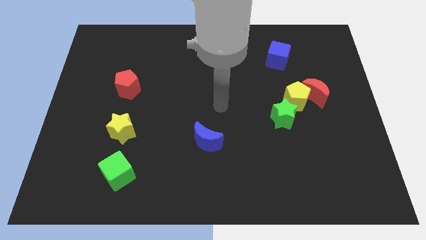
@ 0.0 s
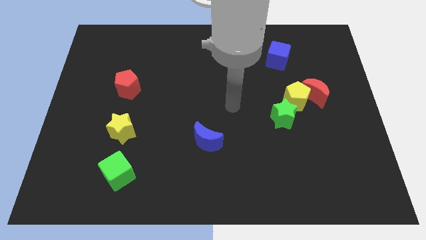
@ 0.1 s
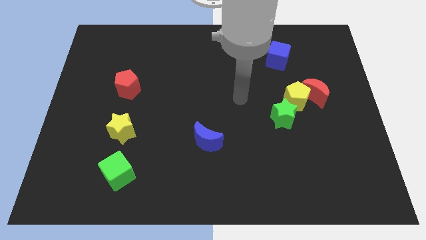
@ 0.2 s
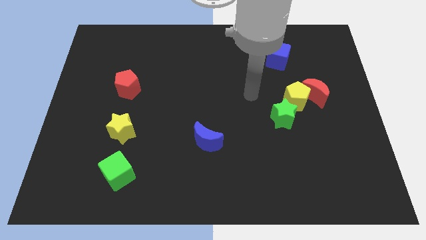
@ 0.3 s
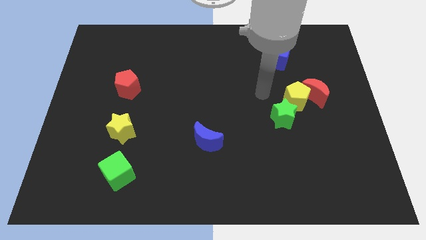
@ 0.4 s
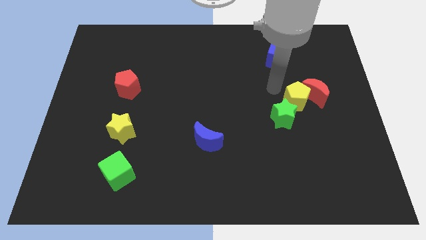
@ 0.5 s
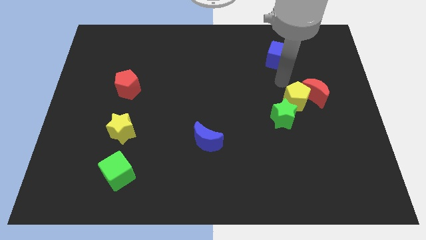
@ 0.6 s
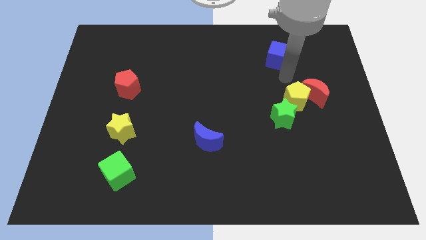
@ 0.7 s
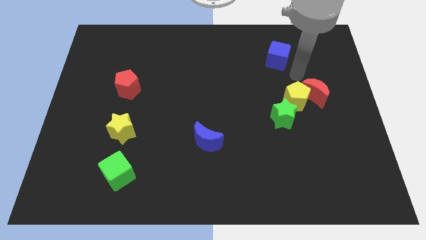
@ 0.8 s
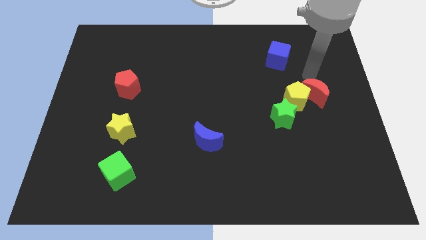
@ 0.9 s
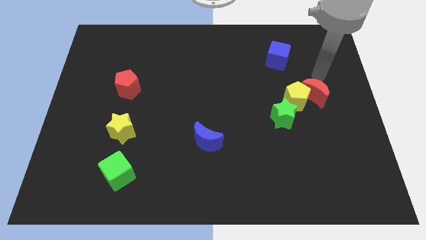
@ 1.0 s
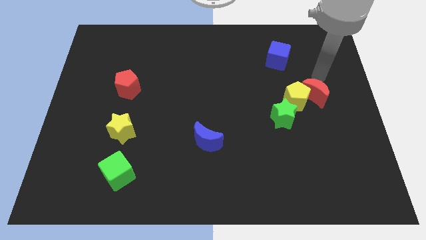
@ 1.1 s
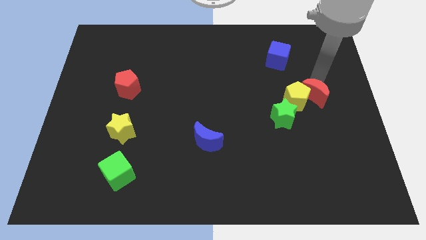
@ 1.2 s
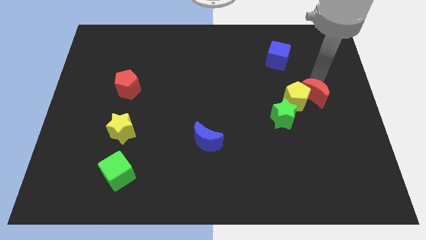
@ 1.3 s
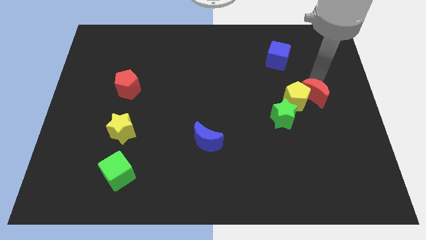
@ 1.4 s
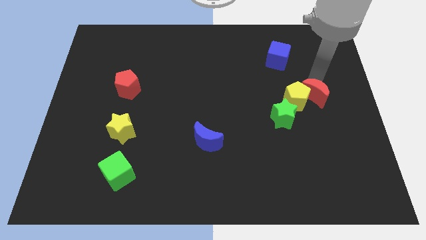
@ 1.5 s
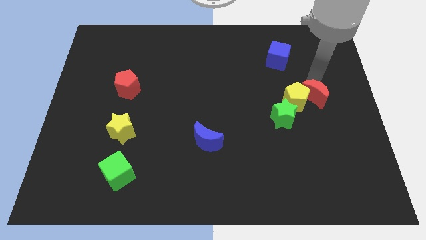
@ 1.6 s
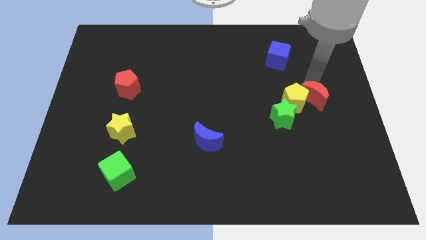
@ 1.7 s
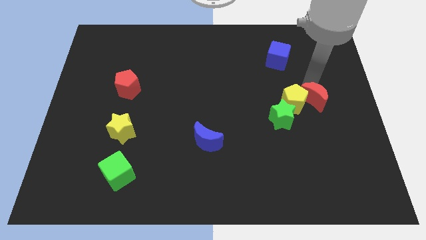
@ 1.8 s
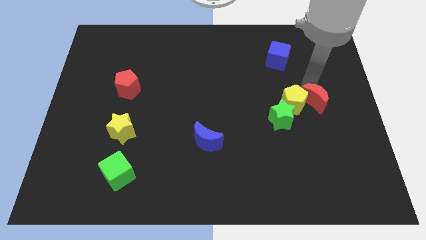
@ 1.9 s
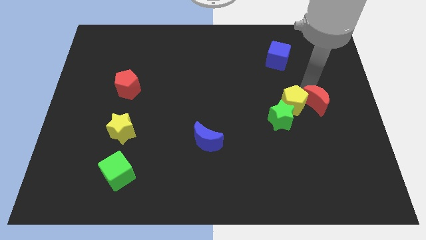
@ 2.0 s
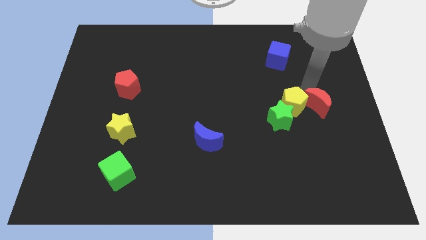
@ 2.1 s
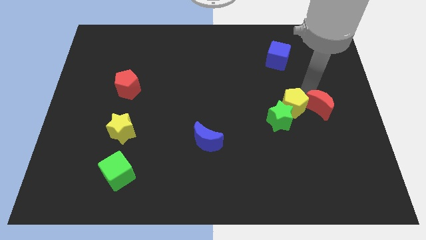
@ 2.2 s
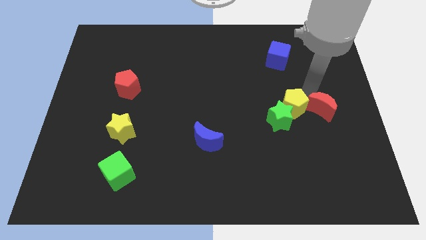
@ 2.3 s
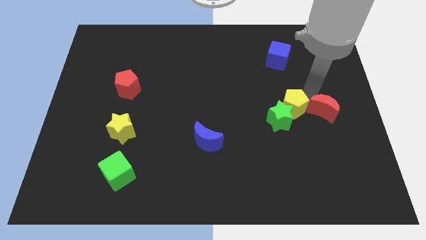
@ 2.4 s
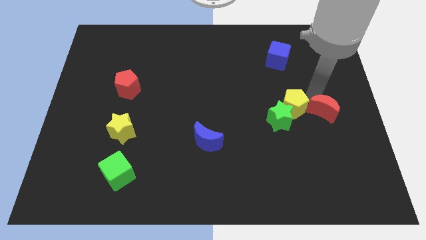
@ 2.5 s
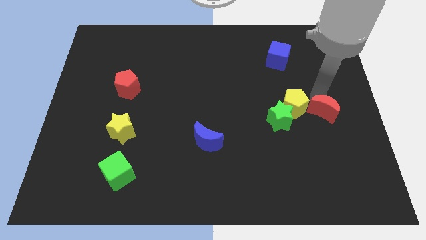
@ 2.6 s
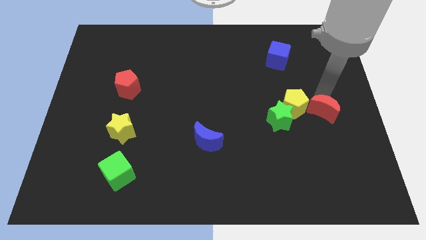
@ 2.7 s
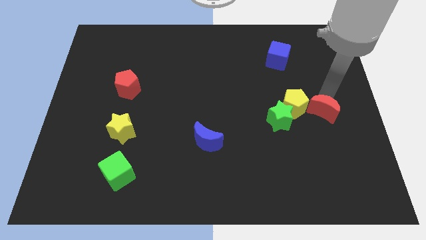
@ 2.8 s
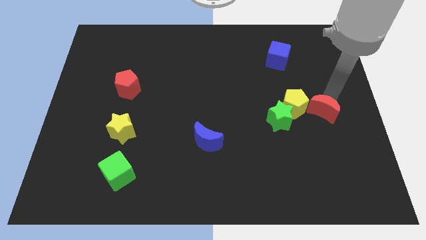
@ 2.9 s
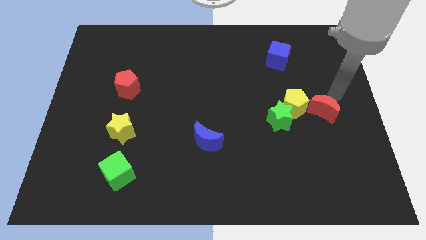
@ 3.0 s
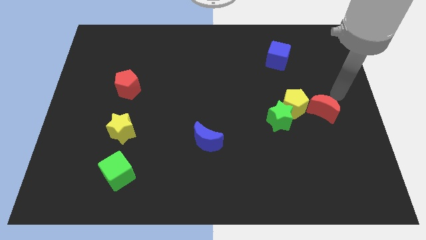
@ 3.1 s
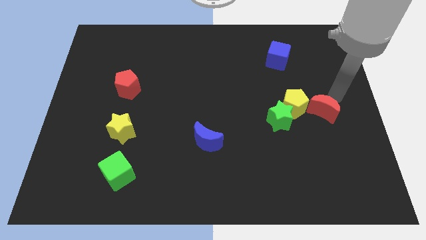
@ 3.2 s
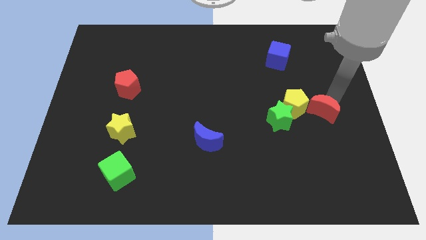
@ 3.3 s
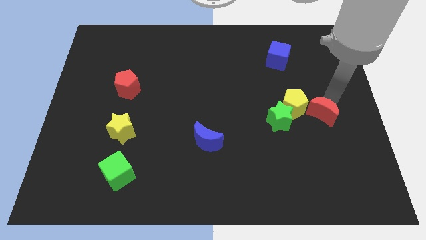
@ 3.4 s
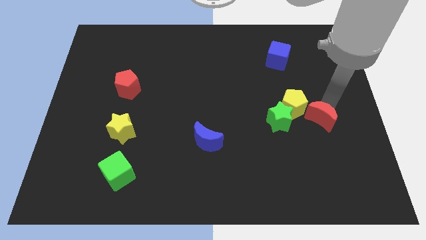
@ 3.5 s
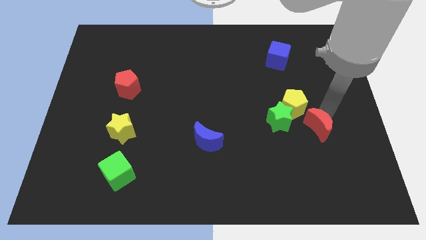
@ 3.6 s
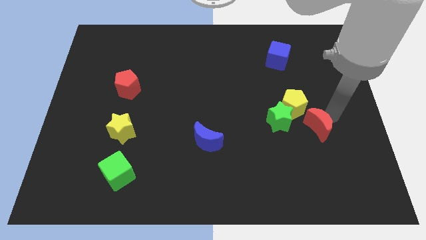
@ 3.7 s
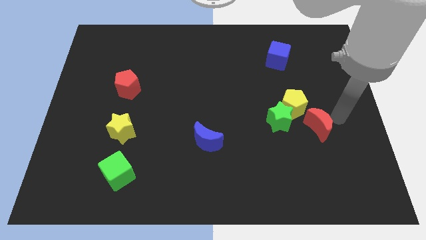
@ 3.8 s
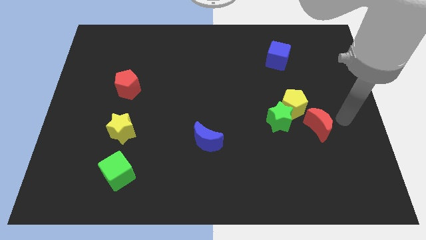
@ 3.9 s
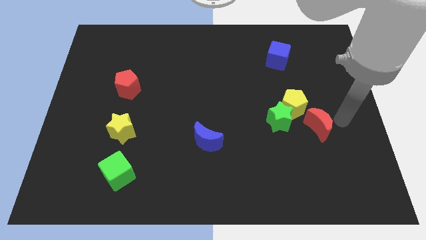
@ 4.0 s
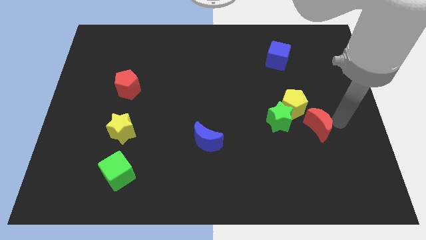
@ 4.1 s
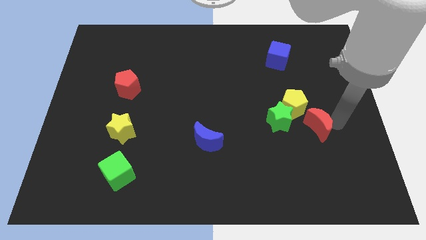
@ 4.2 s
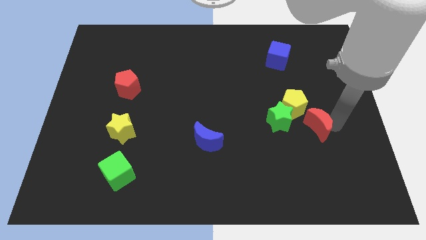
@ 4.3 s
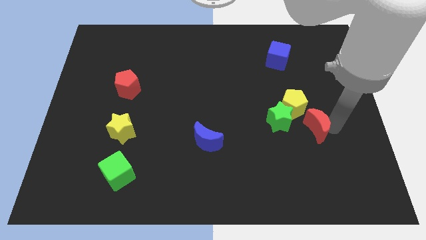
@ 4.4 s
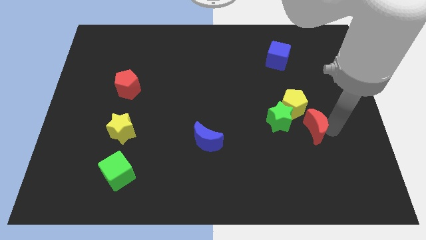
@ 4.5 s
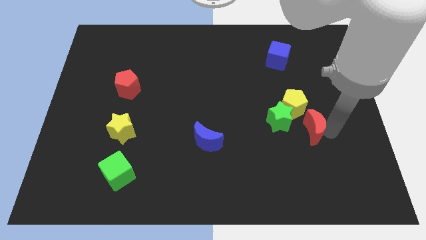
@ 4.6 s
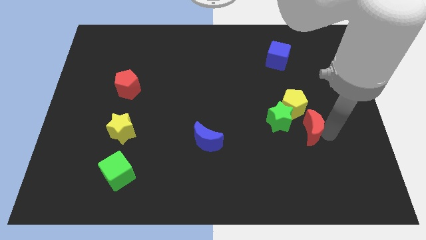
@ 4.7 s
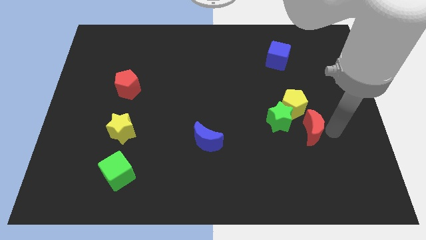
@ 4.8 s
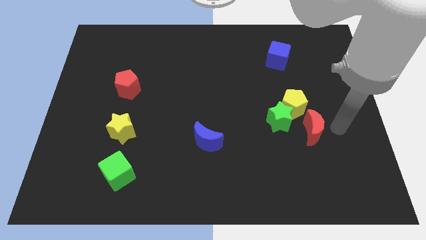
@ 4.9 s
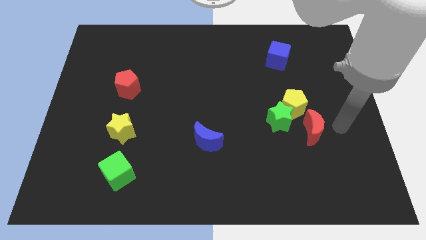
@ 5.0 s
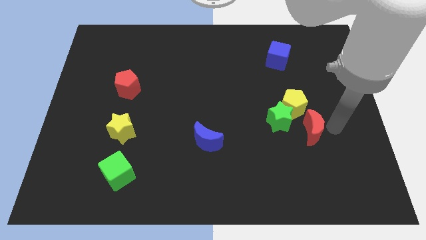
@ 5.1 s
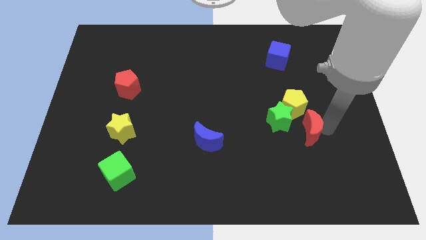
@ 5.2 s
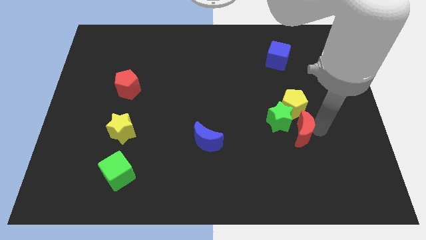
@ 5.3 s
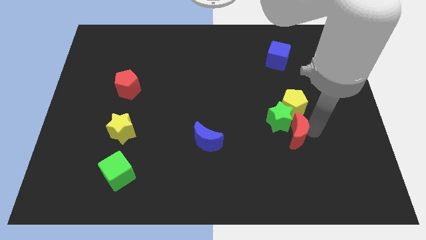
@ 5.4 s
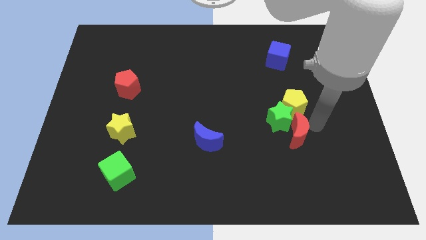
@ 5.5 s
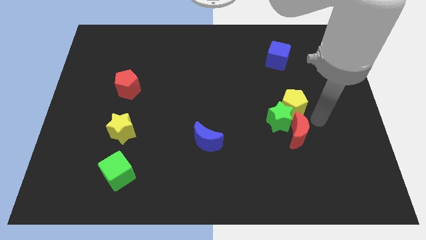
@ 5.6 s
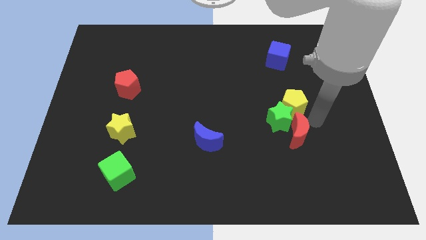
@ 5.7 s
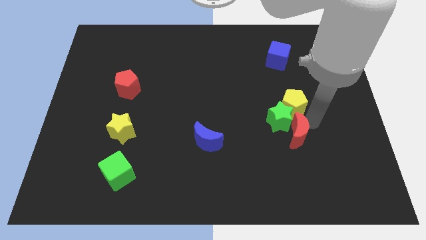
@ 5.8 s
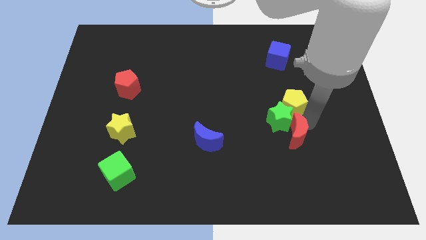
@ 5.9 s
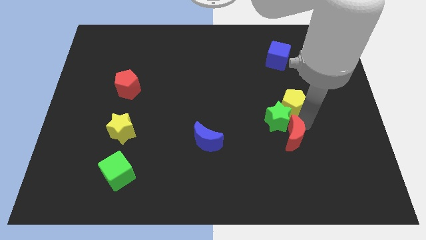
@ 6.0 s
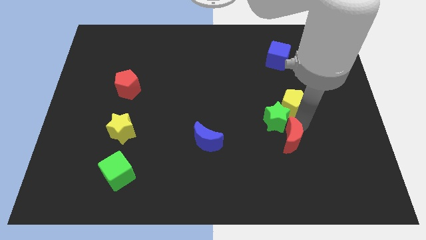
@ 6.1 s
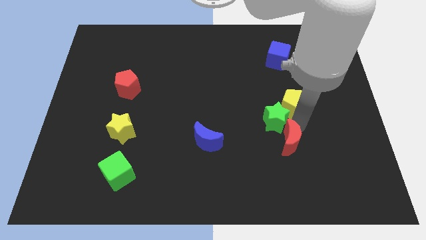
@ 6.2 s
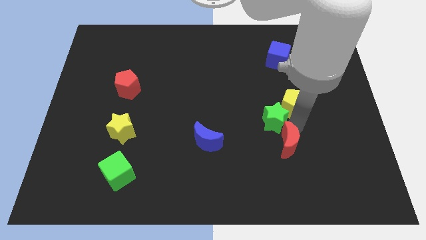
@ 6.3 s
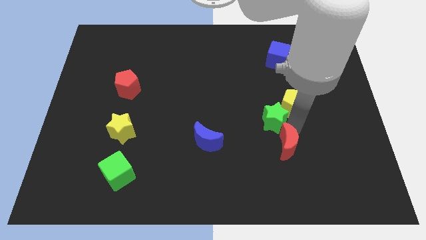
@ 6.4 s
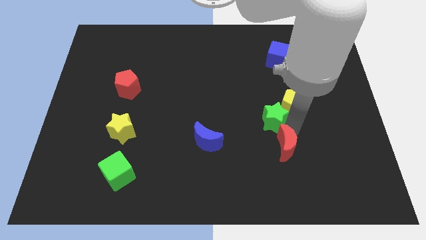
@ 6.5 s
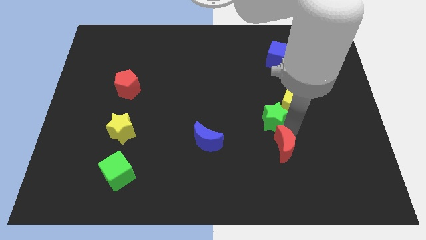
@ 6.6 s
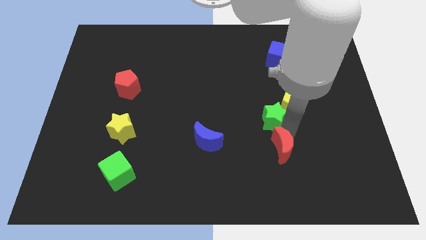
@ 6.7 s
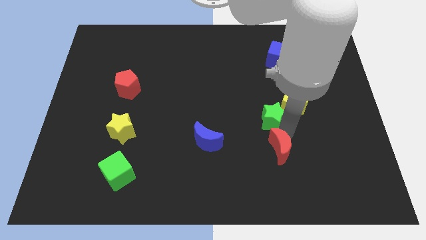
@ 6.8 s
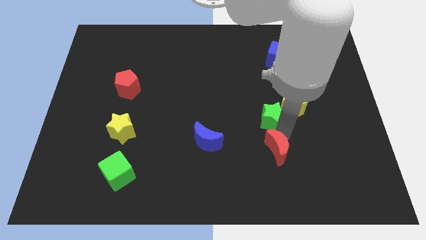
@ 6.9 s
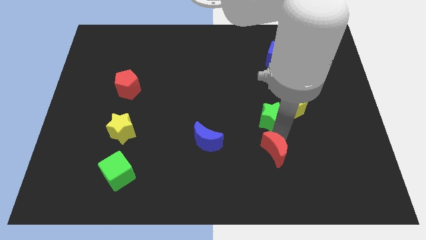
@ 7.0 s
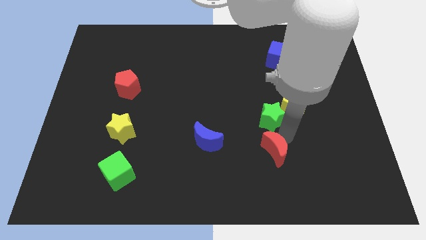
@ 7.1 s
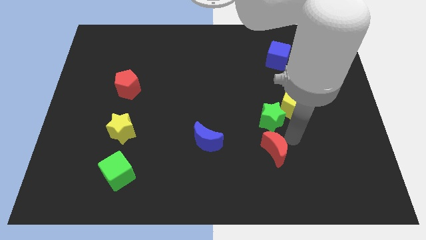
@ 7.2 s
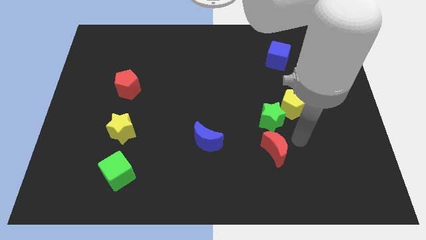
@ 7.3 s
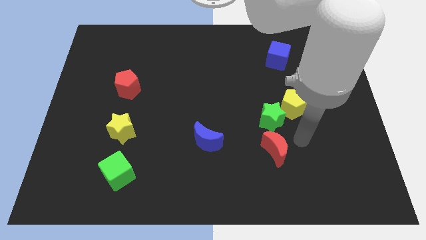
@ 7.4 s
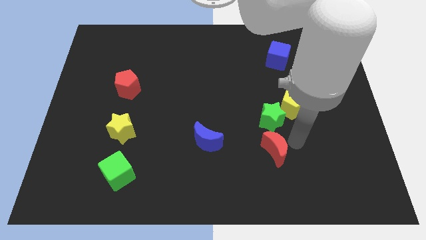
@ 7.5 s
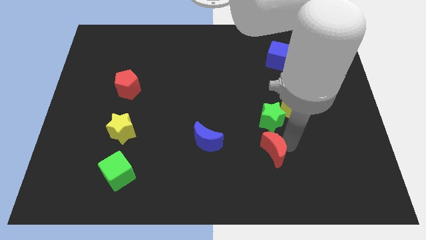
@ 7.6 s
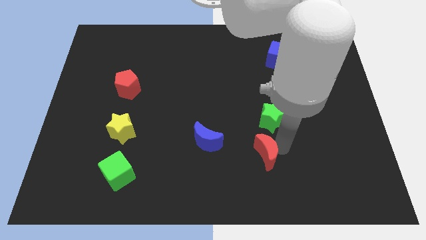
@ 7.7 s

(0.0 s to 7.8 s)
move the red moon down and left

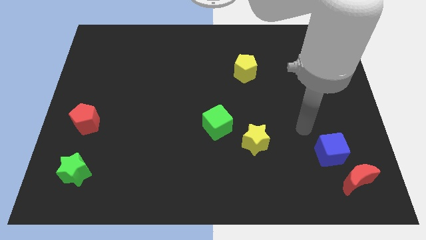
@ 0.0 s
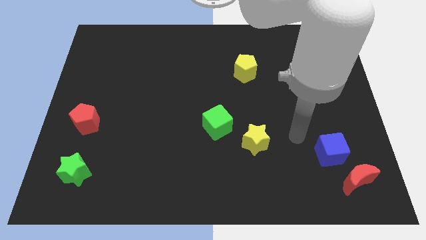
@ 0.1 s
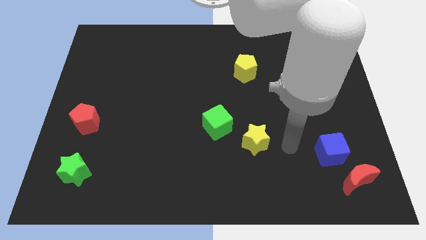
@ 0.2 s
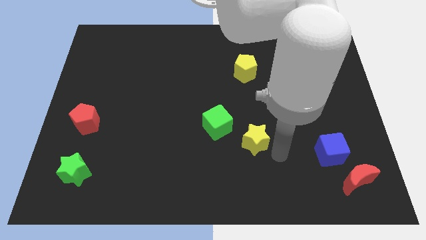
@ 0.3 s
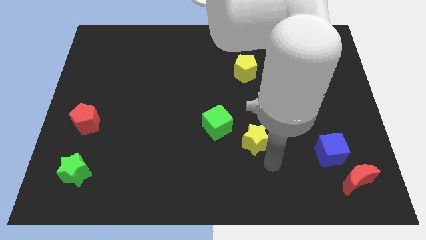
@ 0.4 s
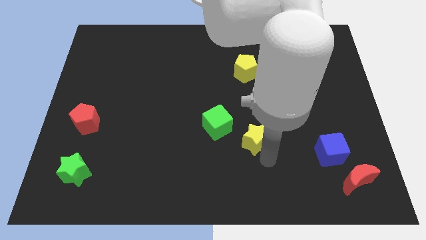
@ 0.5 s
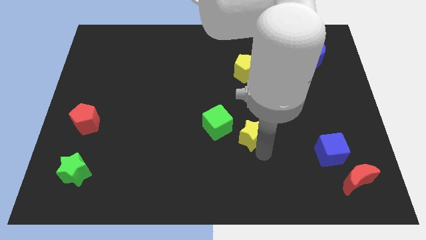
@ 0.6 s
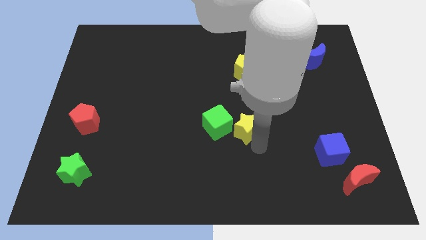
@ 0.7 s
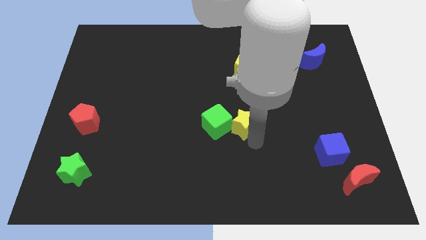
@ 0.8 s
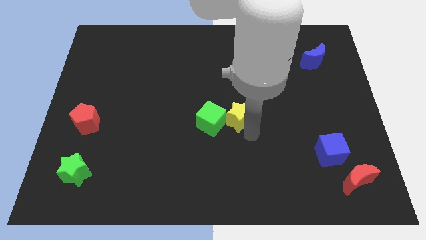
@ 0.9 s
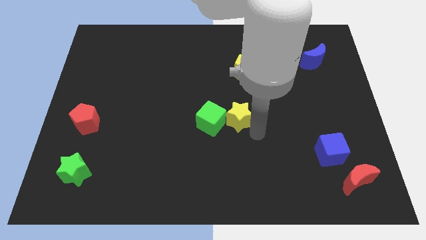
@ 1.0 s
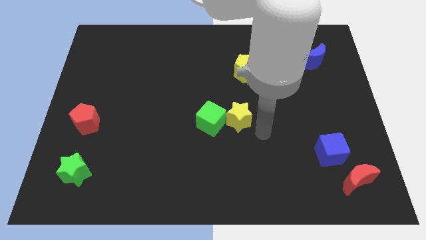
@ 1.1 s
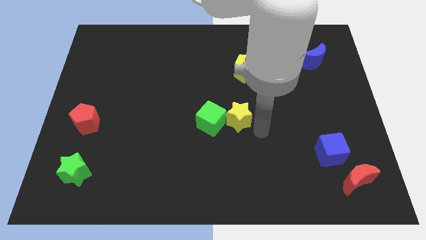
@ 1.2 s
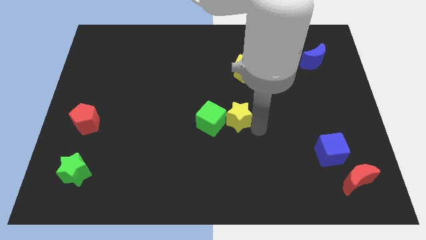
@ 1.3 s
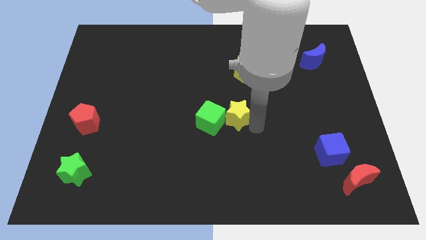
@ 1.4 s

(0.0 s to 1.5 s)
move the yellow star diagonally upwards and to the left slightly
